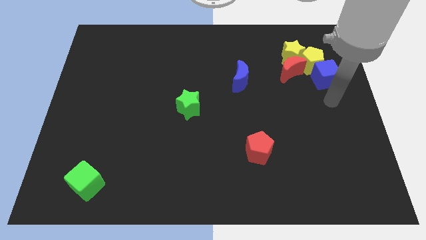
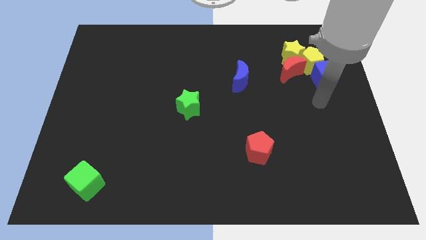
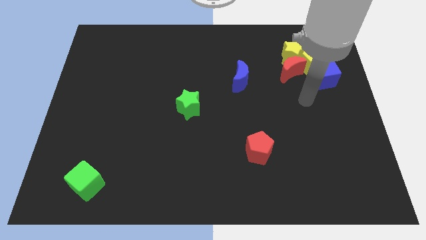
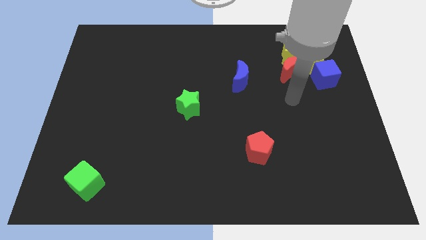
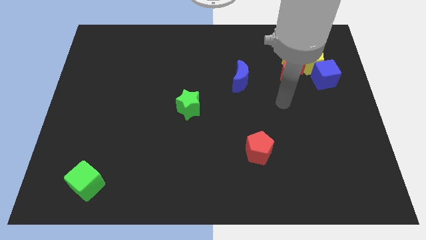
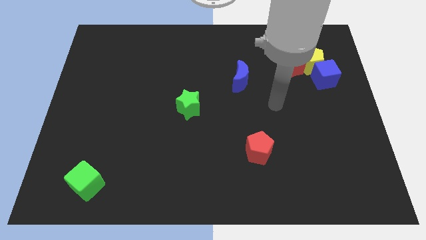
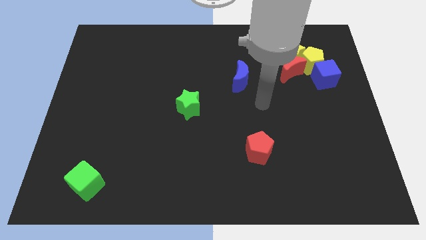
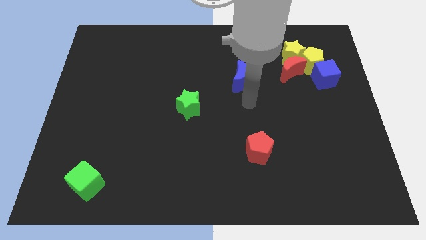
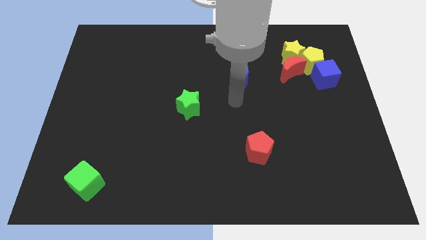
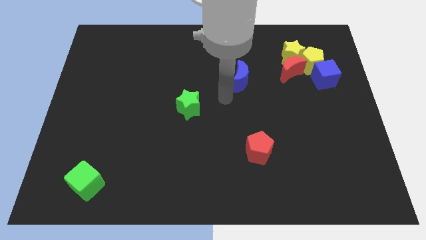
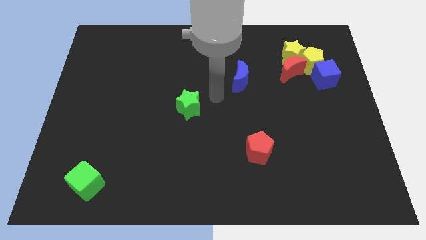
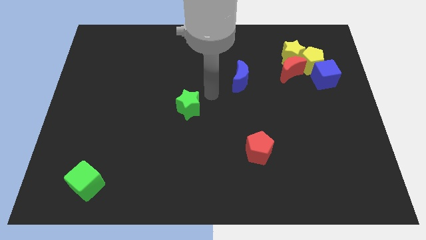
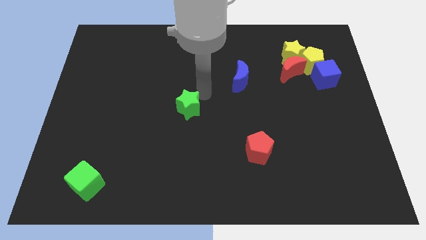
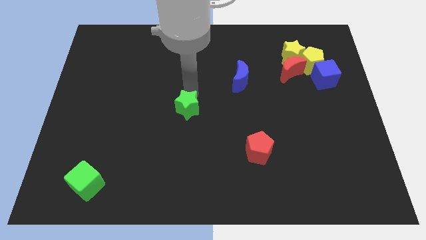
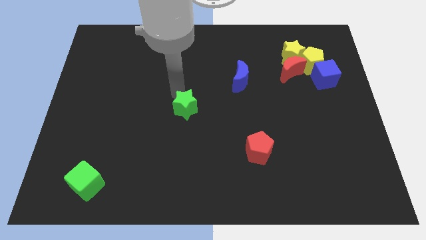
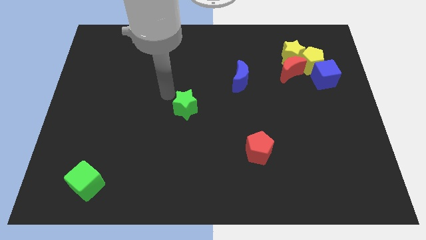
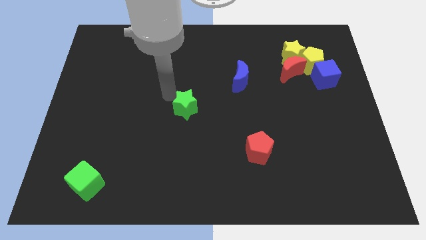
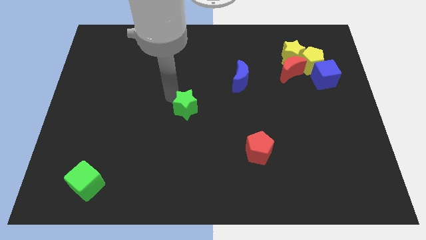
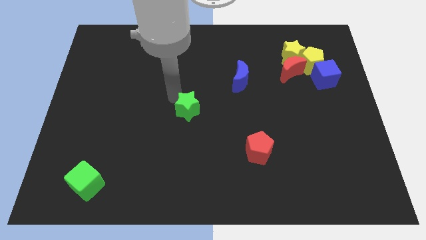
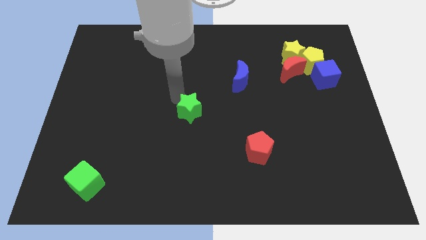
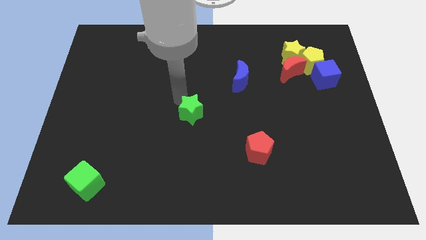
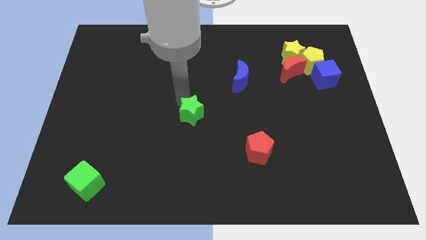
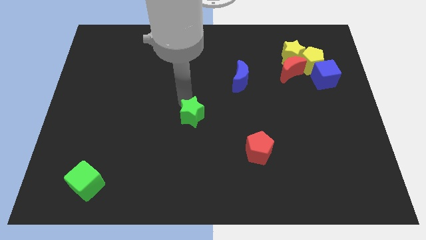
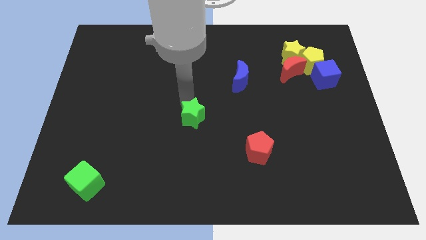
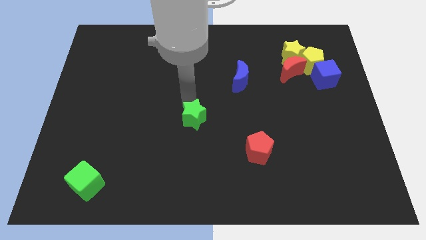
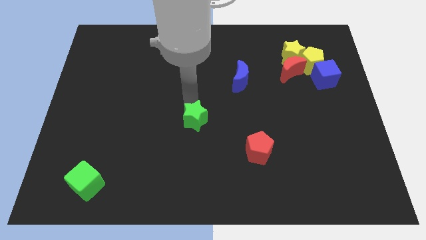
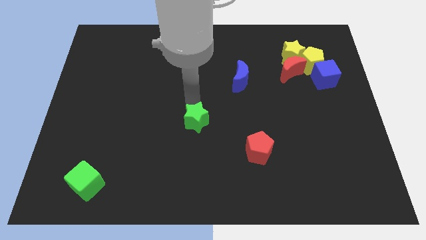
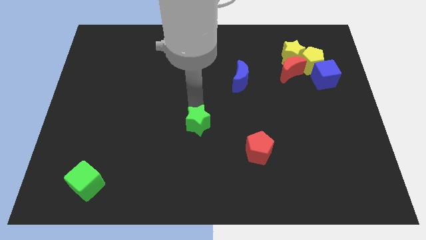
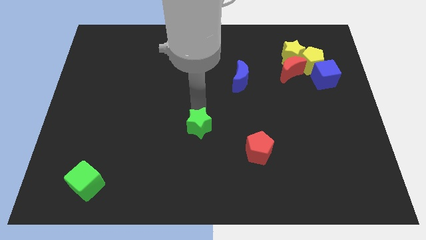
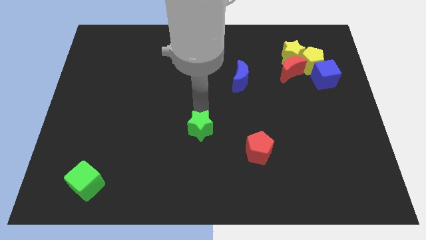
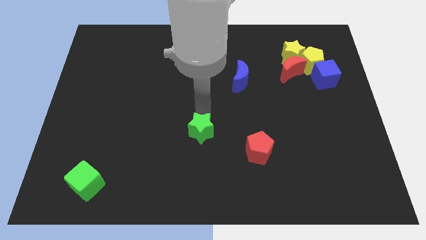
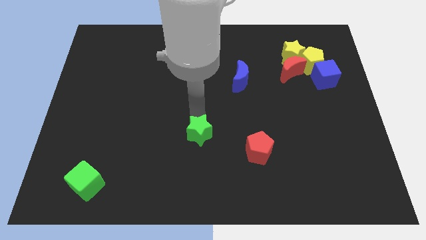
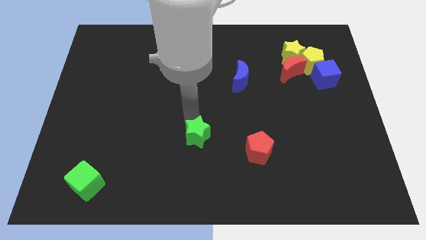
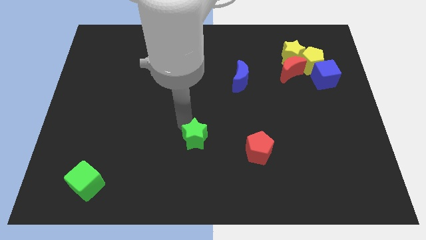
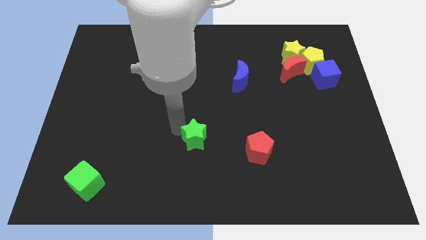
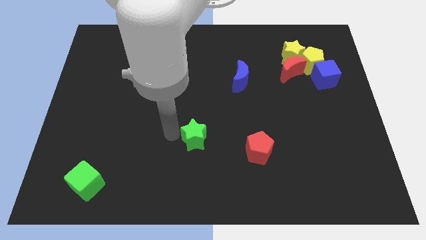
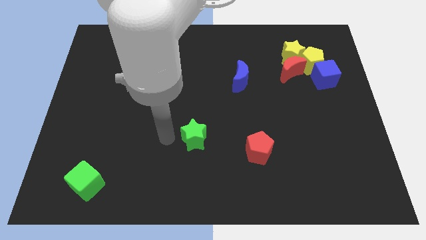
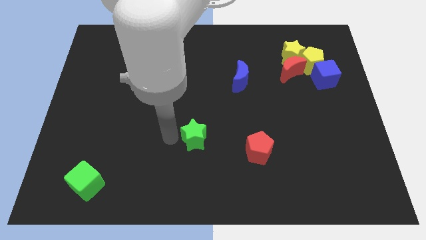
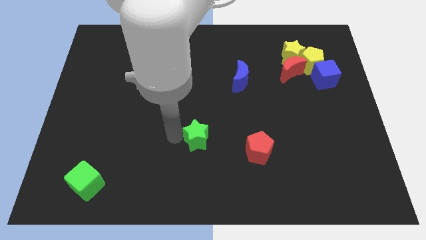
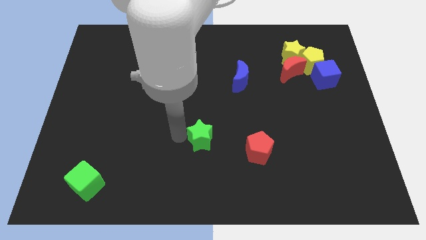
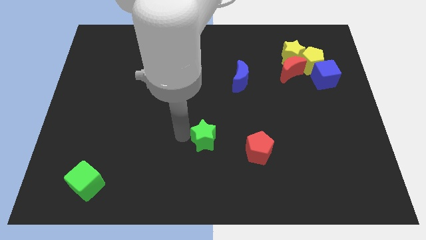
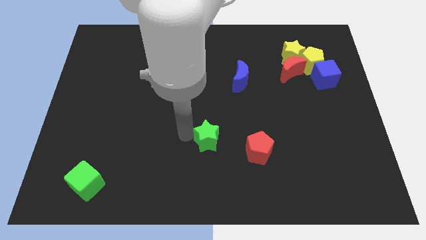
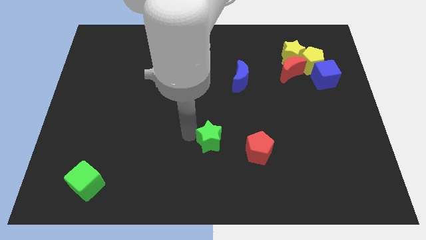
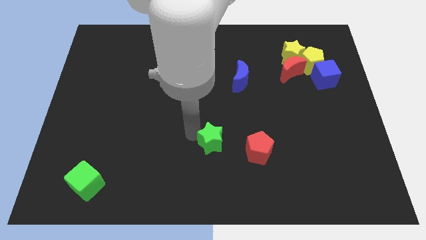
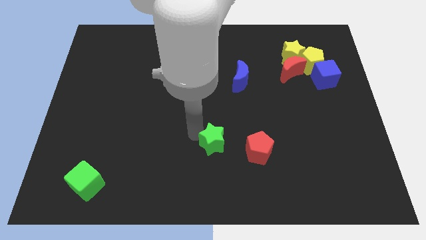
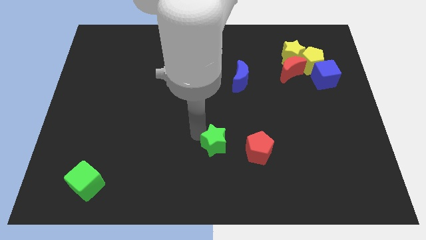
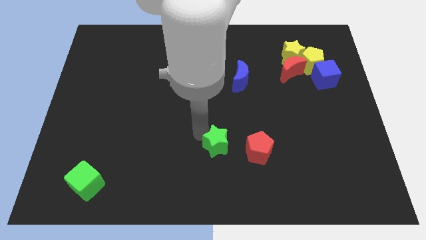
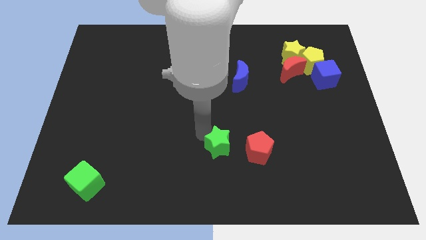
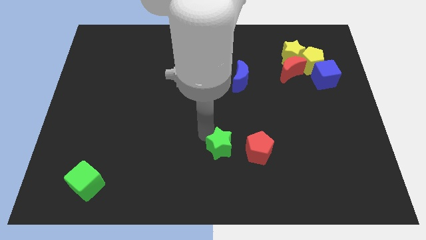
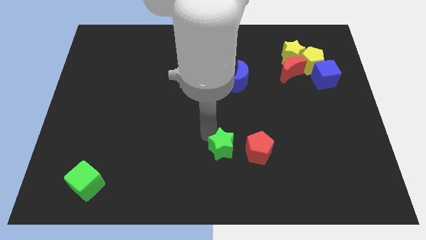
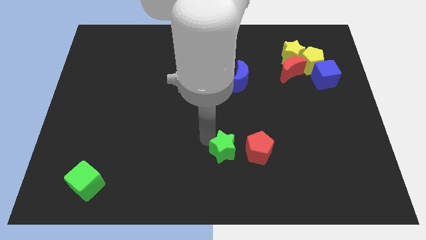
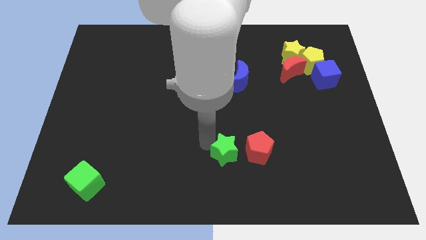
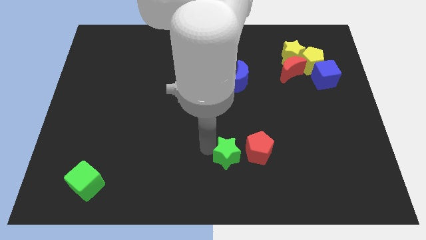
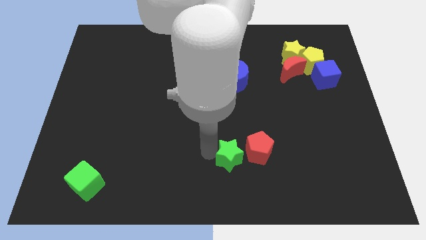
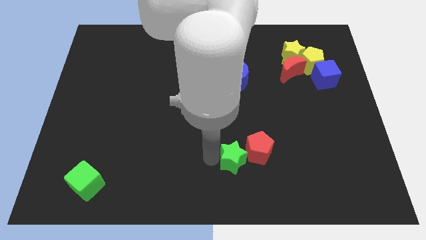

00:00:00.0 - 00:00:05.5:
slide the green star to the red pentagon

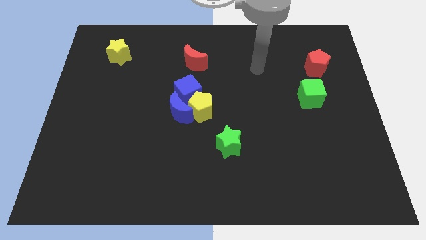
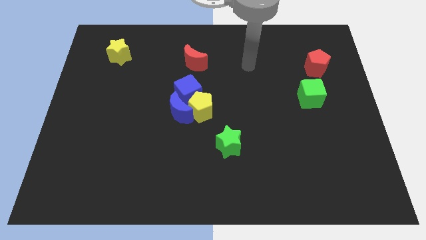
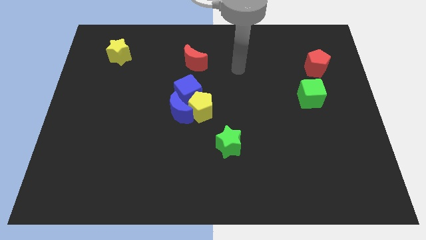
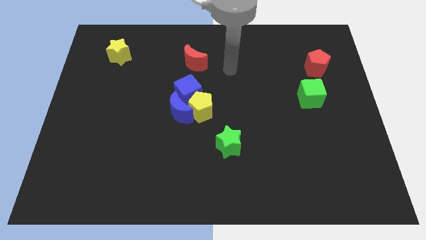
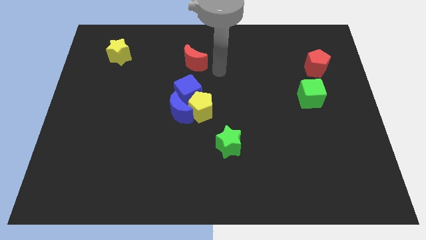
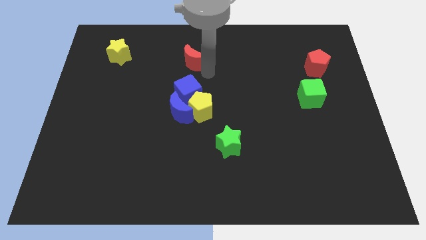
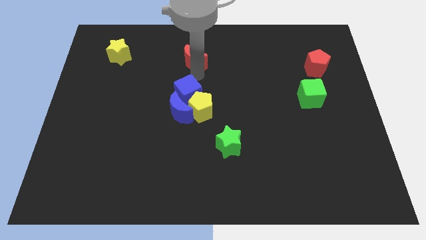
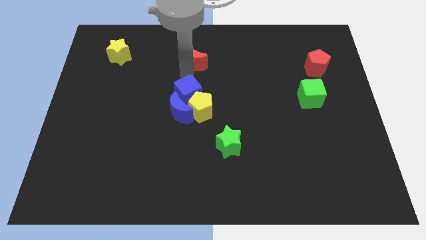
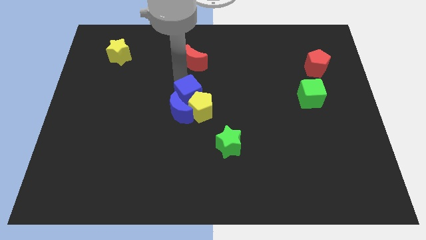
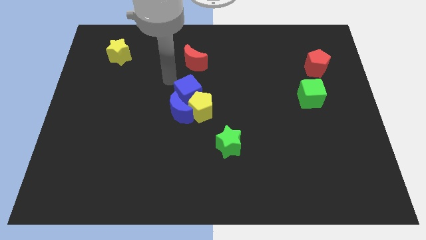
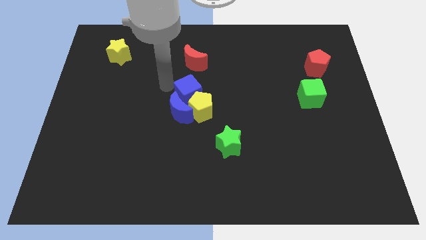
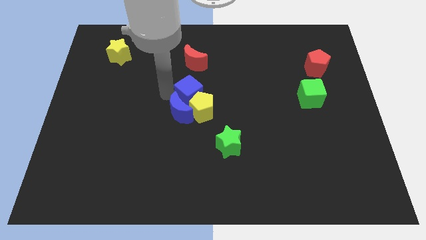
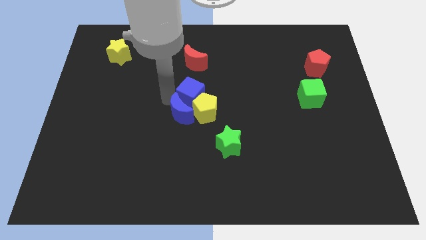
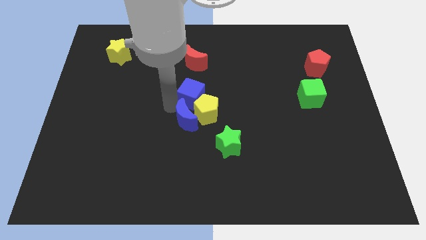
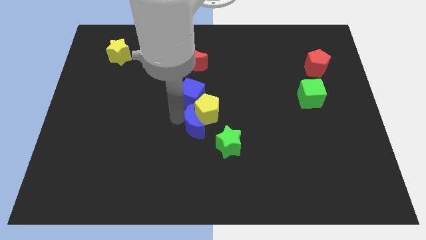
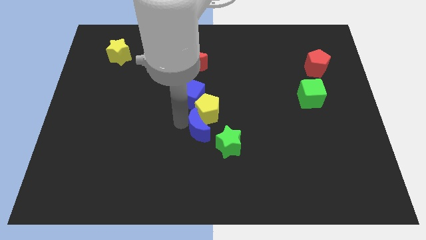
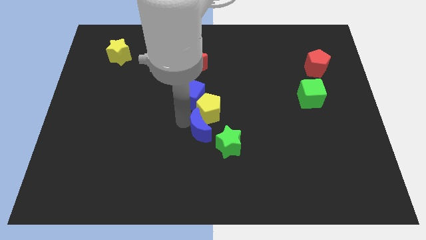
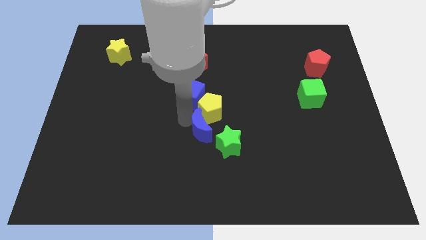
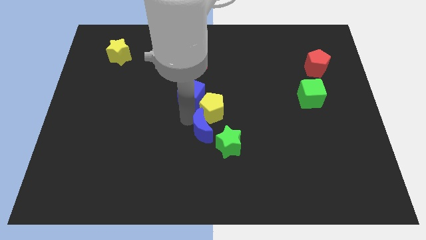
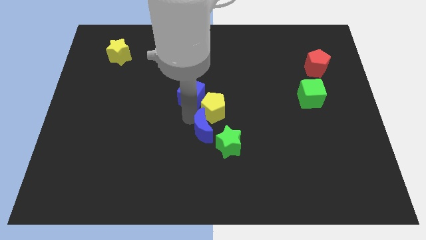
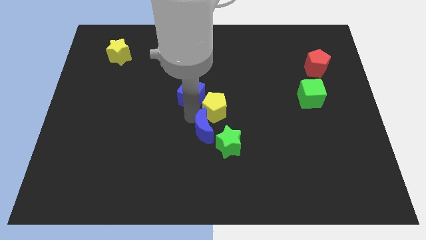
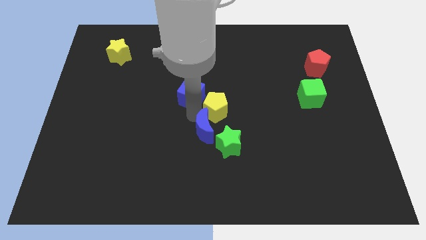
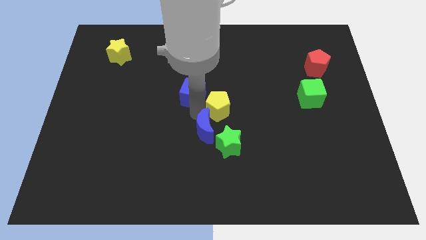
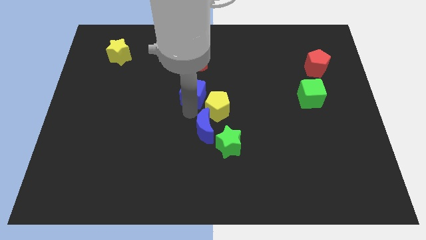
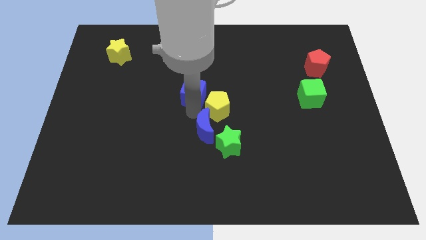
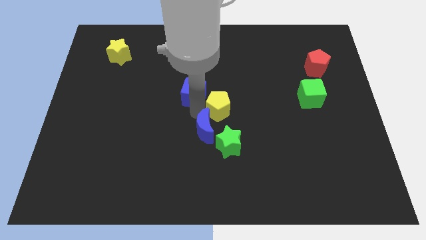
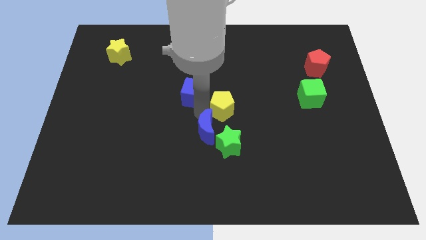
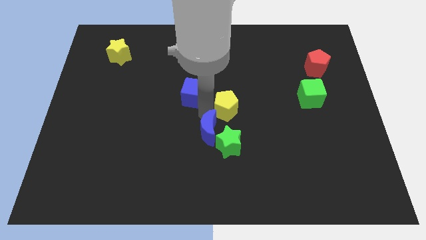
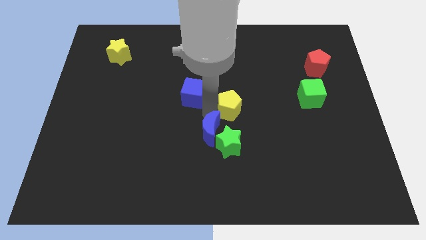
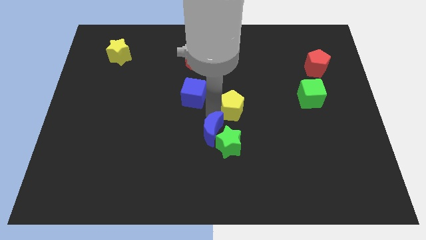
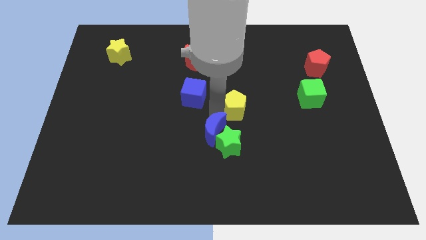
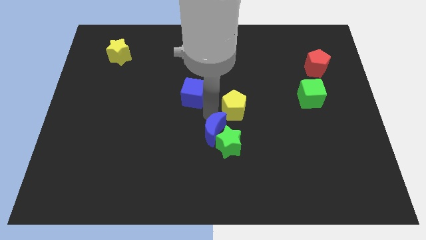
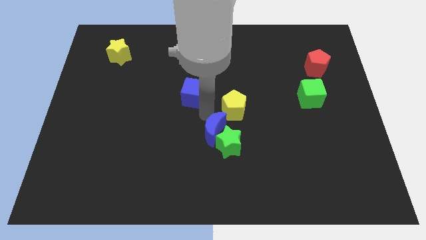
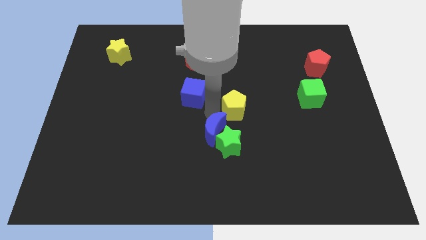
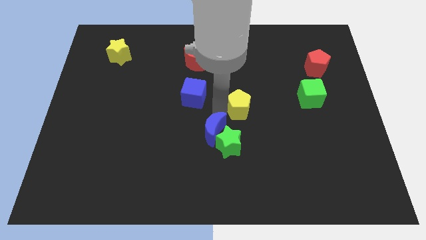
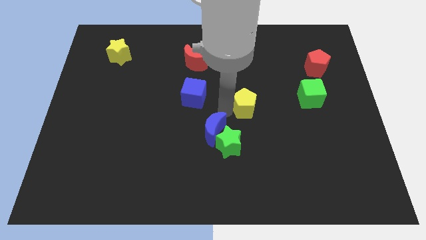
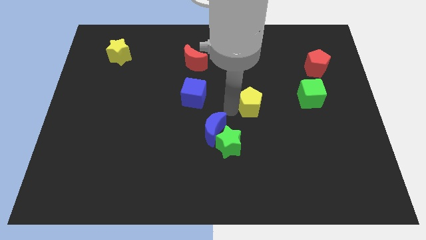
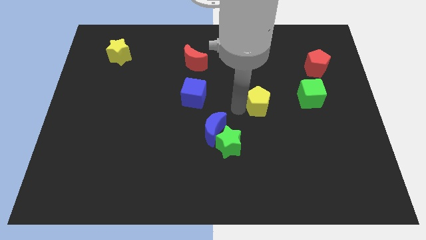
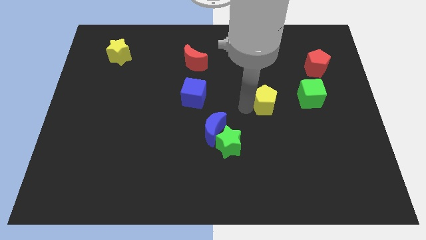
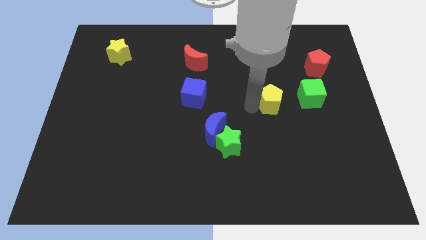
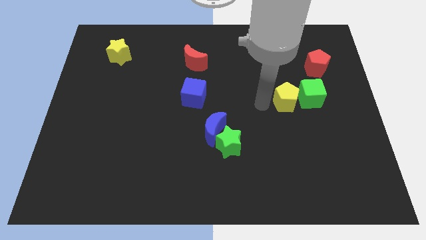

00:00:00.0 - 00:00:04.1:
put the yellow pentagon close to the green cube
